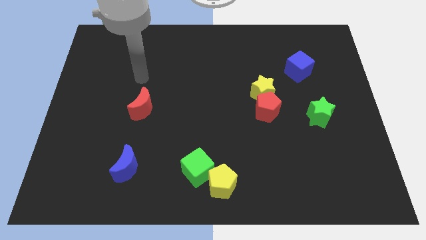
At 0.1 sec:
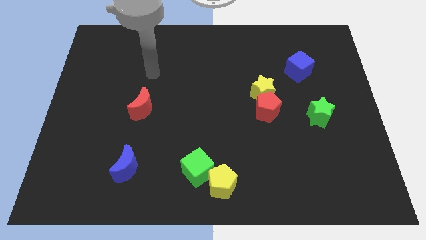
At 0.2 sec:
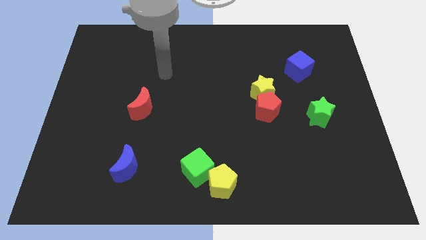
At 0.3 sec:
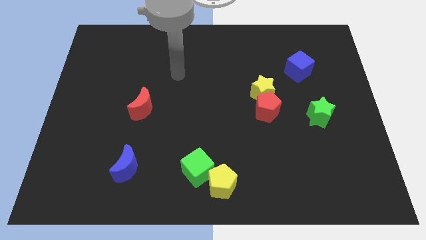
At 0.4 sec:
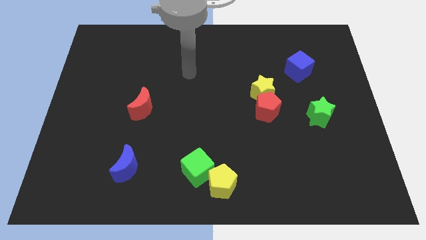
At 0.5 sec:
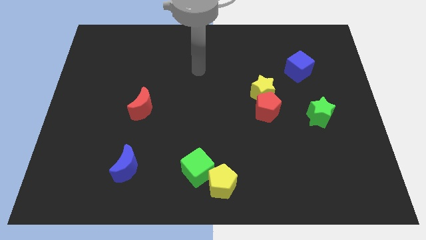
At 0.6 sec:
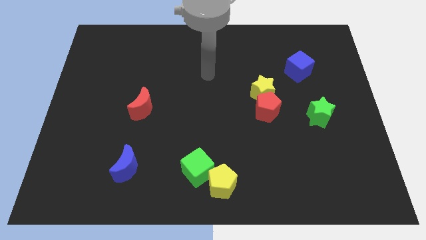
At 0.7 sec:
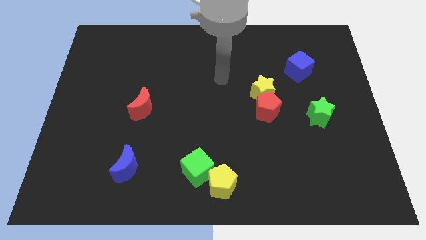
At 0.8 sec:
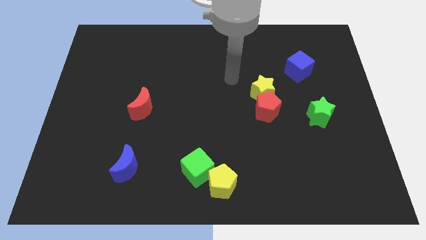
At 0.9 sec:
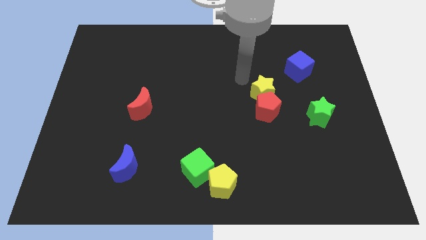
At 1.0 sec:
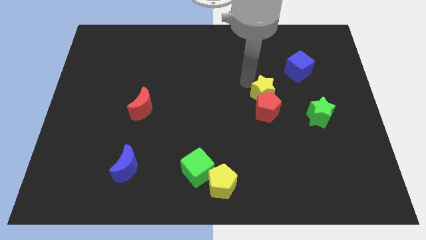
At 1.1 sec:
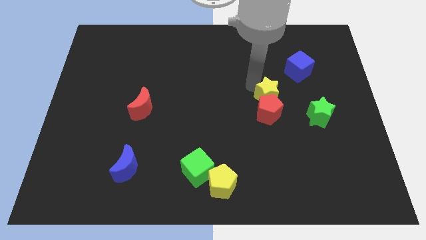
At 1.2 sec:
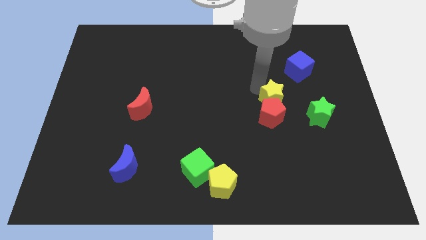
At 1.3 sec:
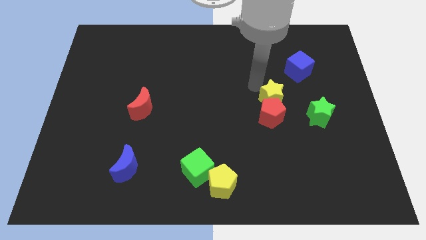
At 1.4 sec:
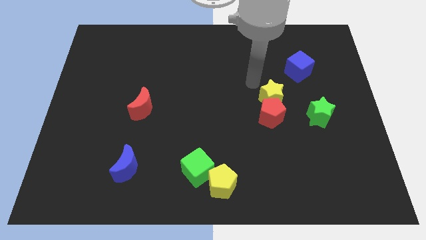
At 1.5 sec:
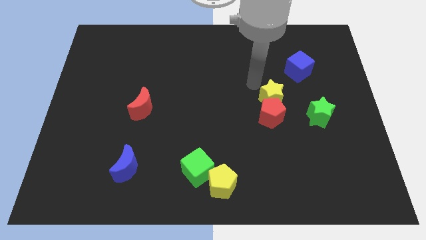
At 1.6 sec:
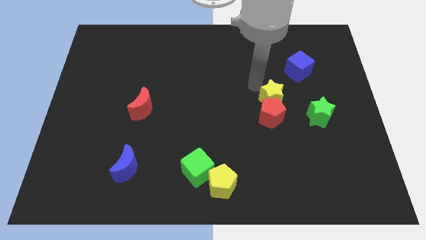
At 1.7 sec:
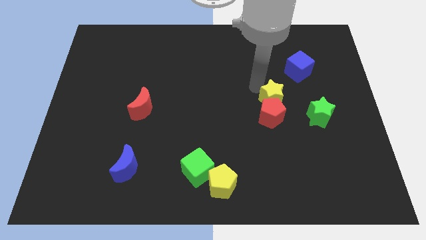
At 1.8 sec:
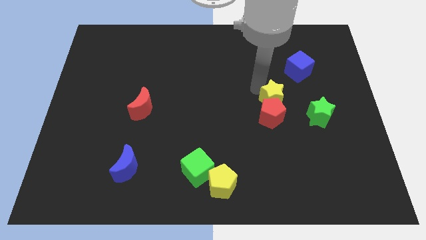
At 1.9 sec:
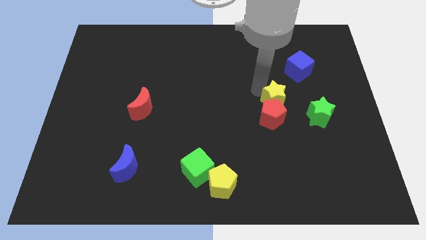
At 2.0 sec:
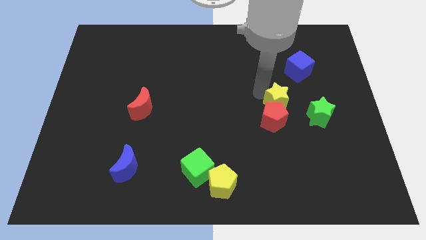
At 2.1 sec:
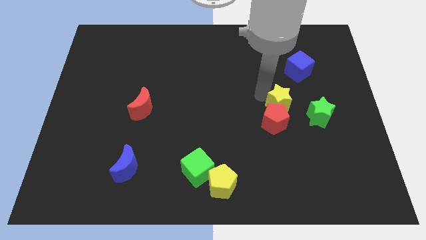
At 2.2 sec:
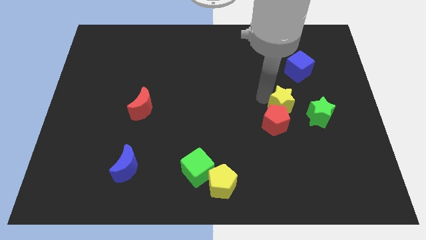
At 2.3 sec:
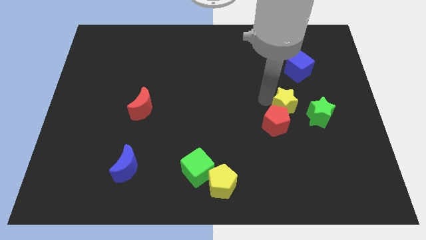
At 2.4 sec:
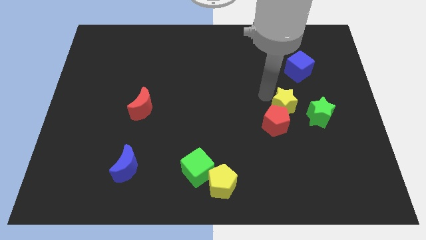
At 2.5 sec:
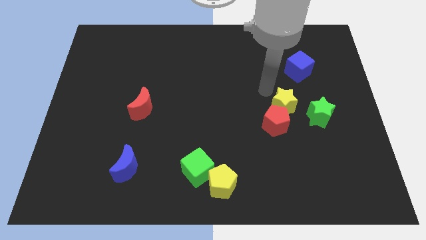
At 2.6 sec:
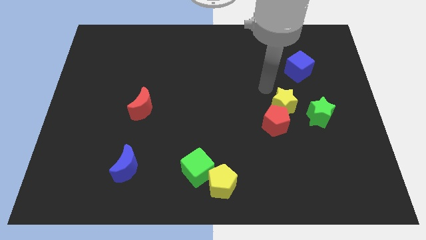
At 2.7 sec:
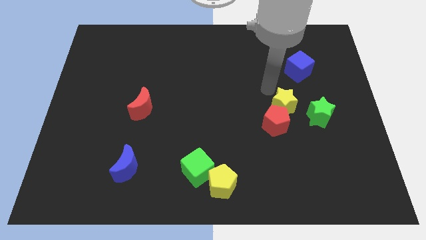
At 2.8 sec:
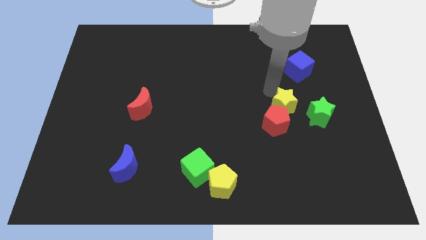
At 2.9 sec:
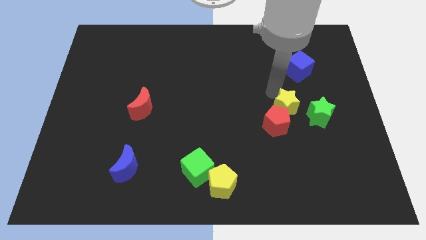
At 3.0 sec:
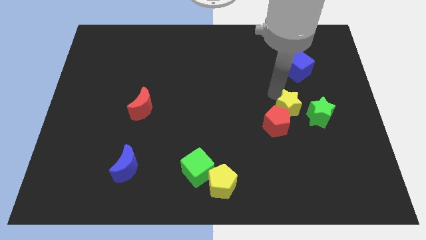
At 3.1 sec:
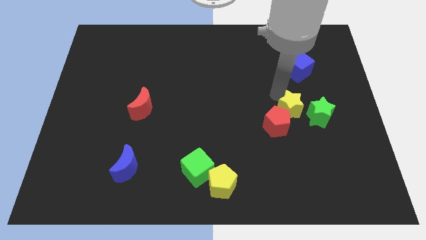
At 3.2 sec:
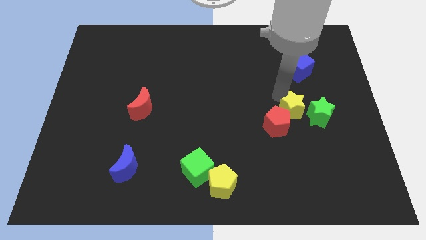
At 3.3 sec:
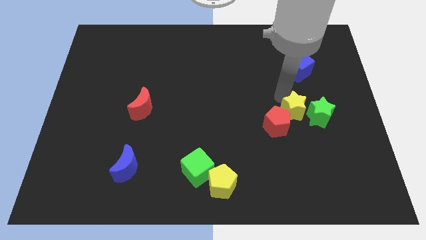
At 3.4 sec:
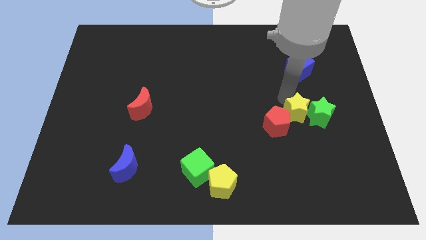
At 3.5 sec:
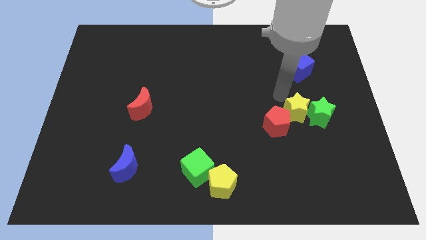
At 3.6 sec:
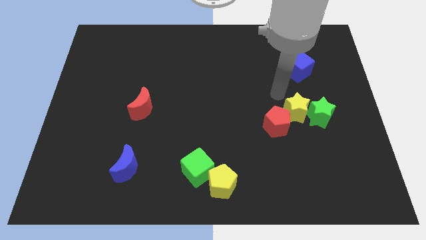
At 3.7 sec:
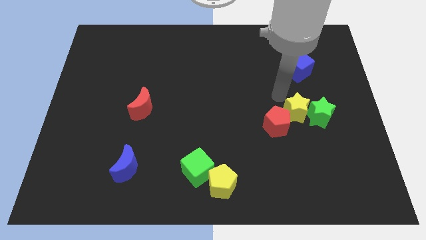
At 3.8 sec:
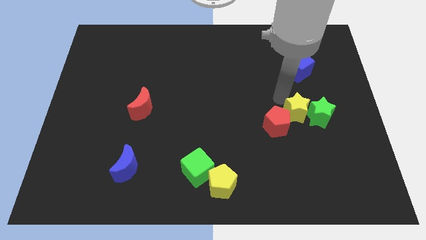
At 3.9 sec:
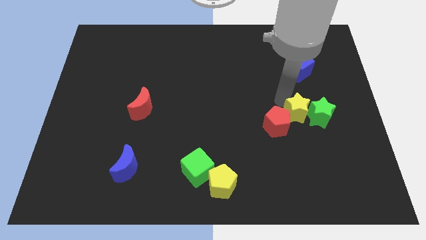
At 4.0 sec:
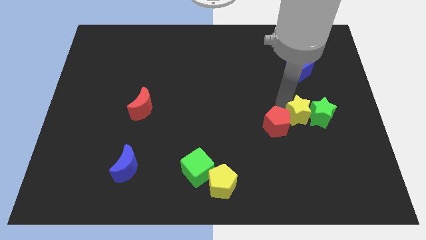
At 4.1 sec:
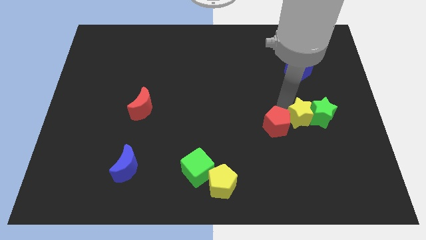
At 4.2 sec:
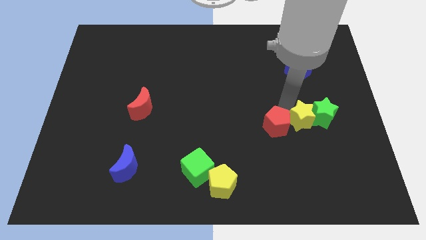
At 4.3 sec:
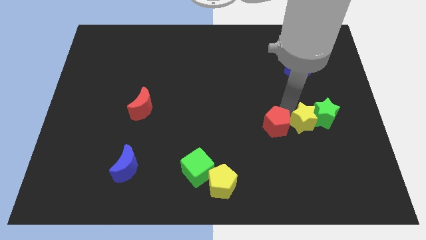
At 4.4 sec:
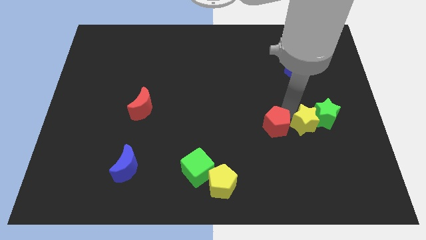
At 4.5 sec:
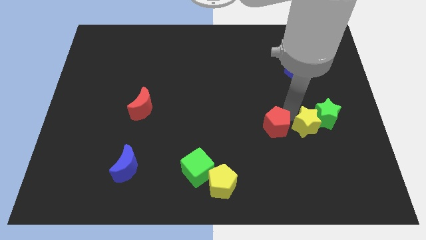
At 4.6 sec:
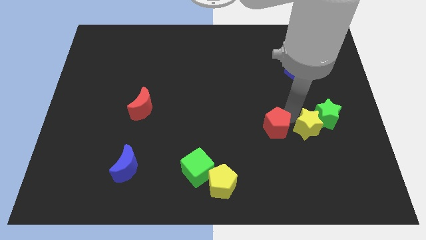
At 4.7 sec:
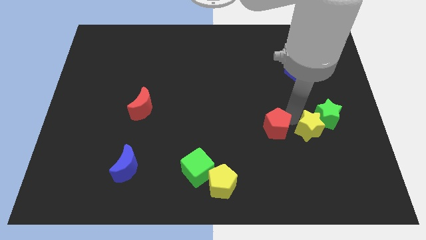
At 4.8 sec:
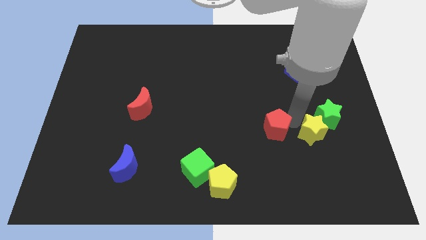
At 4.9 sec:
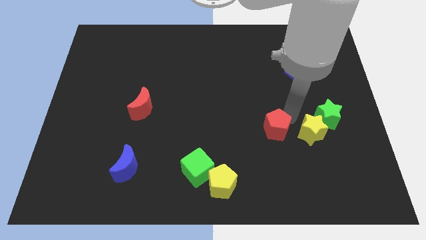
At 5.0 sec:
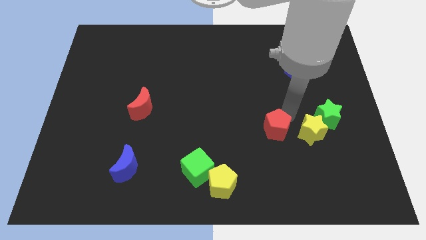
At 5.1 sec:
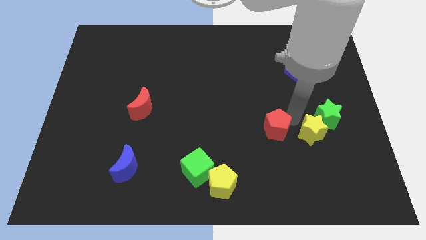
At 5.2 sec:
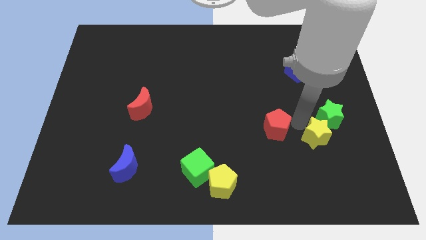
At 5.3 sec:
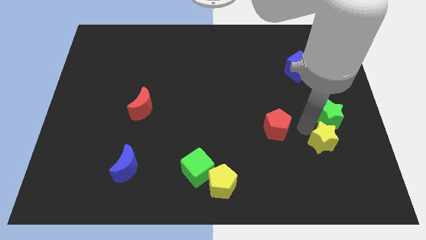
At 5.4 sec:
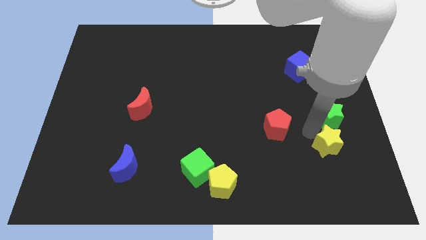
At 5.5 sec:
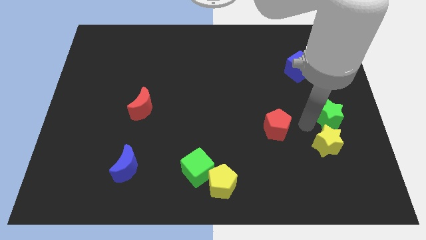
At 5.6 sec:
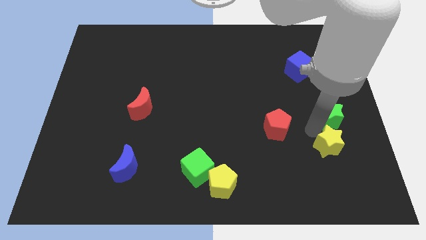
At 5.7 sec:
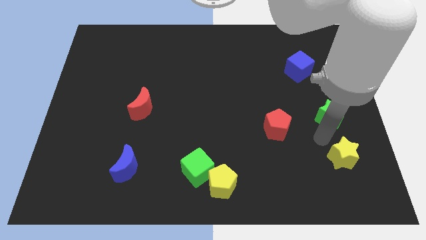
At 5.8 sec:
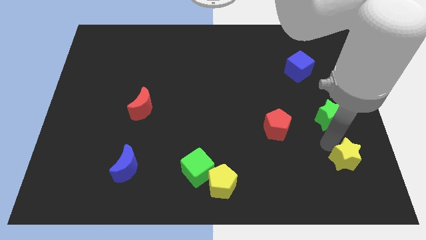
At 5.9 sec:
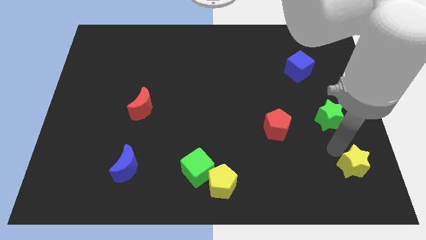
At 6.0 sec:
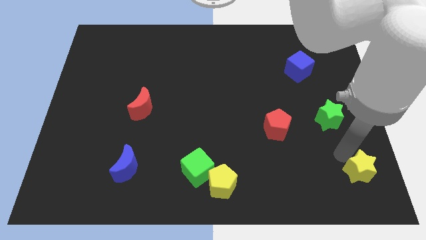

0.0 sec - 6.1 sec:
push the yellow star to the lower right corner

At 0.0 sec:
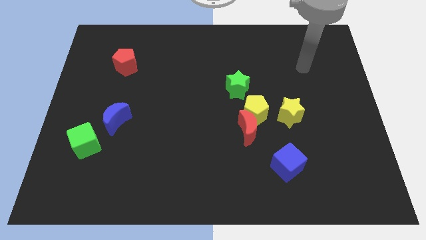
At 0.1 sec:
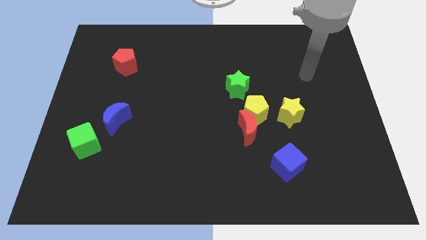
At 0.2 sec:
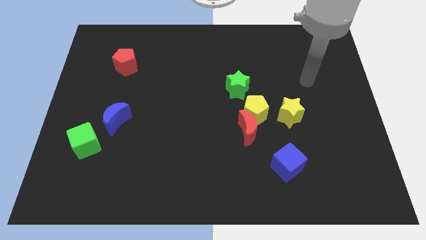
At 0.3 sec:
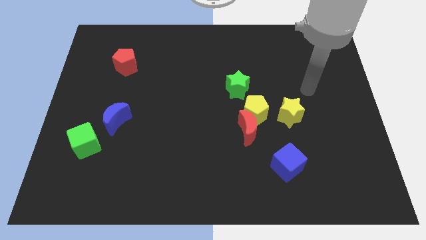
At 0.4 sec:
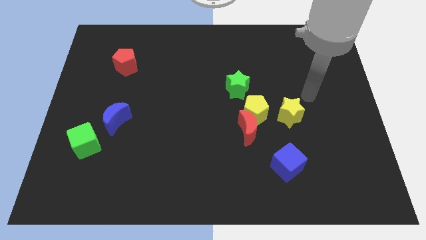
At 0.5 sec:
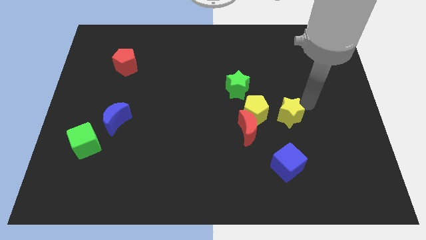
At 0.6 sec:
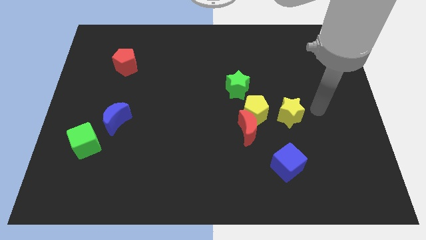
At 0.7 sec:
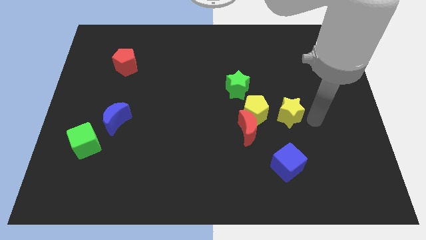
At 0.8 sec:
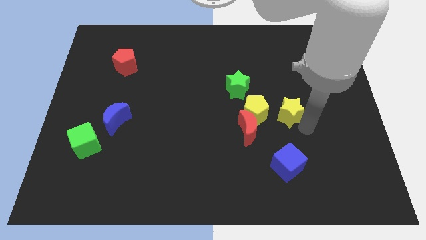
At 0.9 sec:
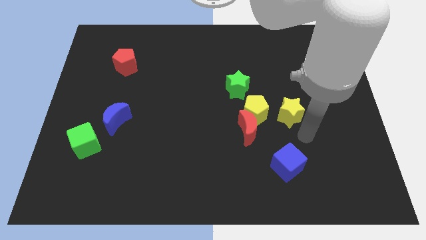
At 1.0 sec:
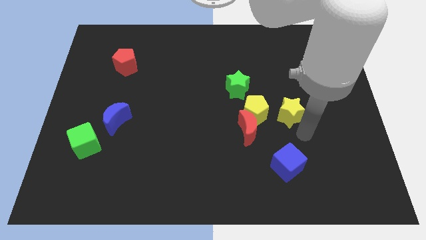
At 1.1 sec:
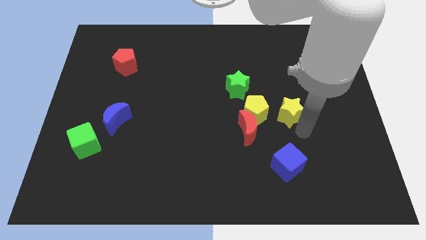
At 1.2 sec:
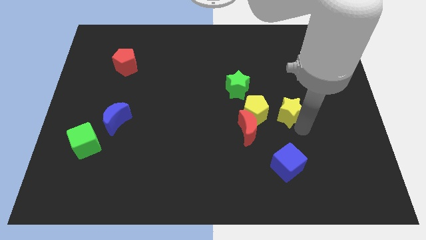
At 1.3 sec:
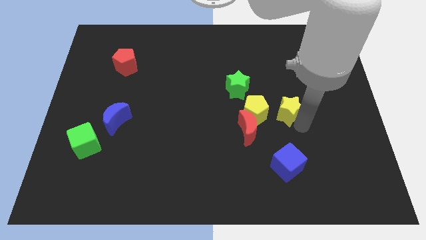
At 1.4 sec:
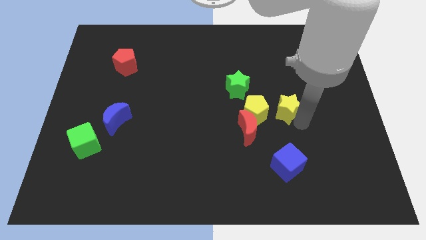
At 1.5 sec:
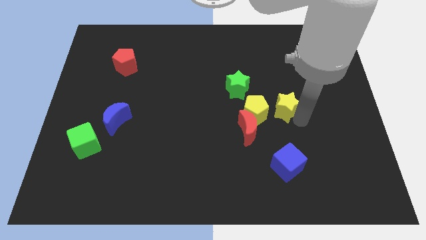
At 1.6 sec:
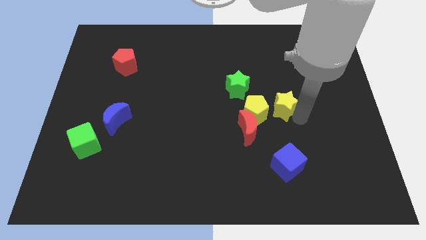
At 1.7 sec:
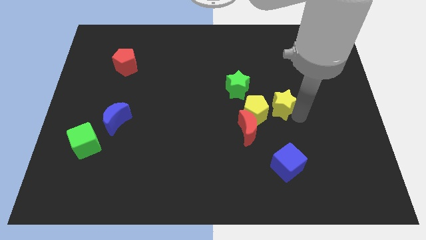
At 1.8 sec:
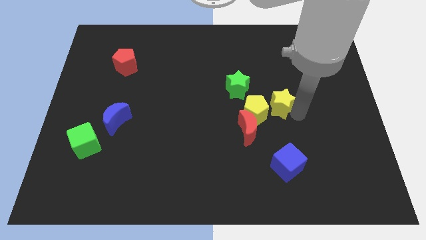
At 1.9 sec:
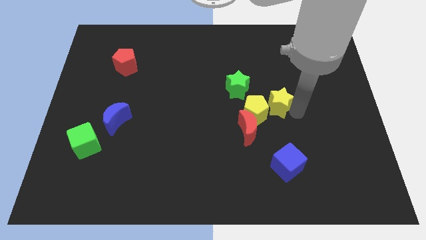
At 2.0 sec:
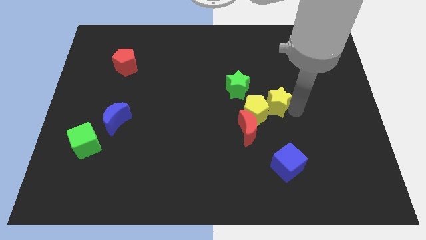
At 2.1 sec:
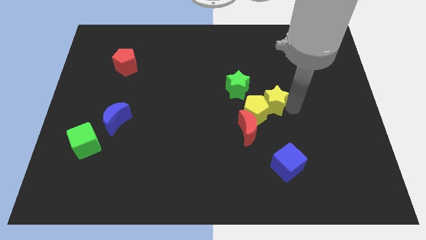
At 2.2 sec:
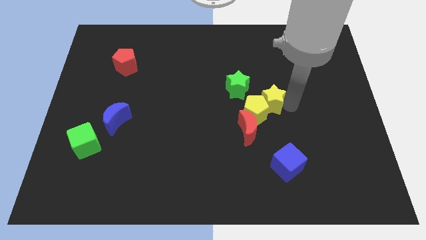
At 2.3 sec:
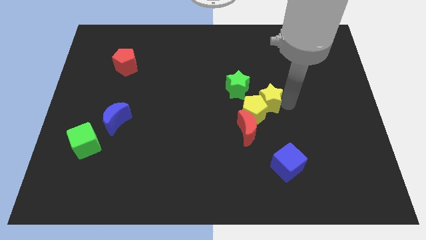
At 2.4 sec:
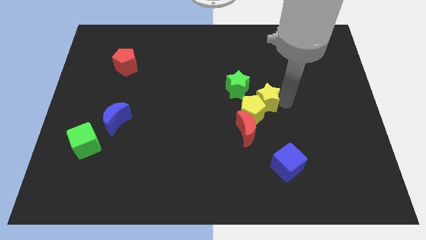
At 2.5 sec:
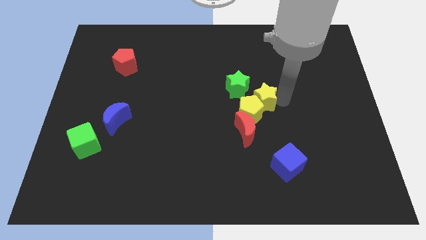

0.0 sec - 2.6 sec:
move the yellow star to the center of the board
